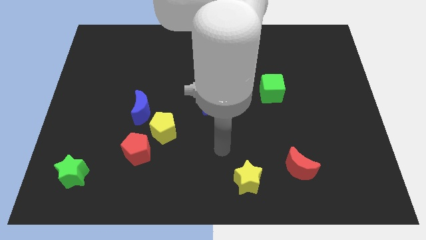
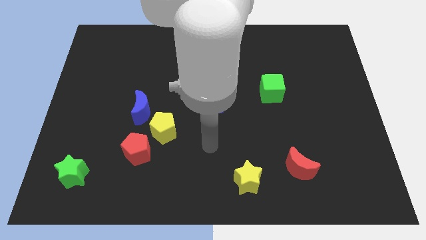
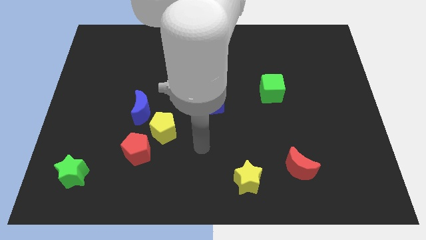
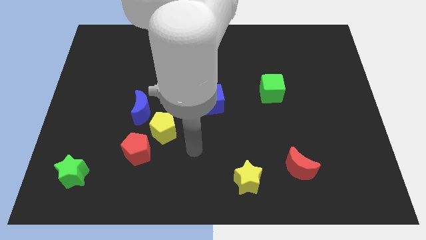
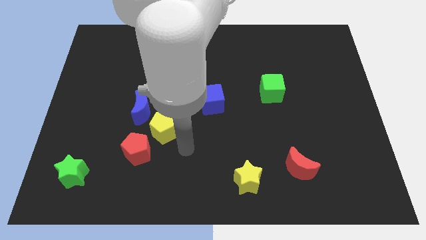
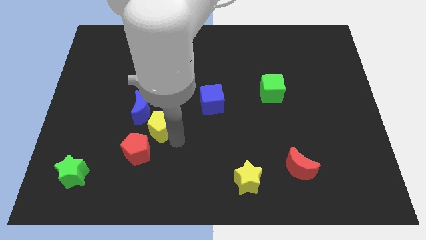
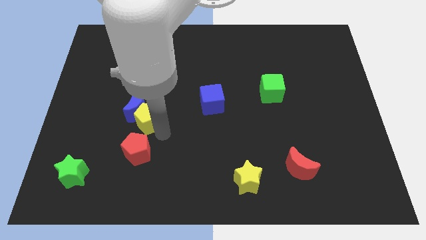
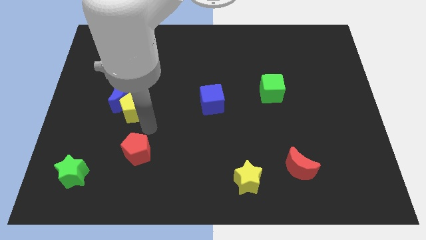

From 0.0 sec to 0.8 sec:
separate the red pentagon from the yellow pentagon

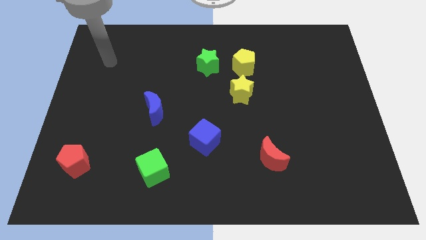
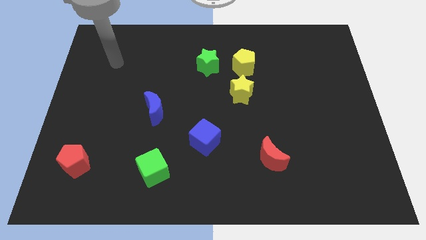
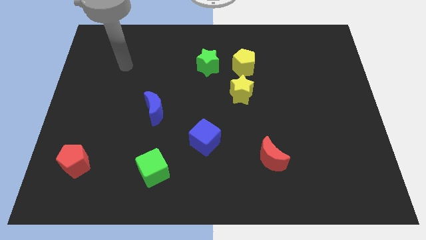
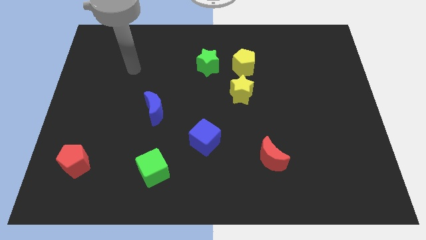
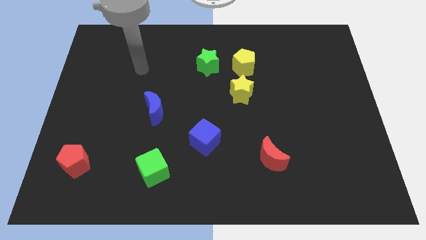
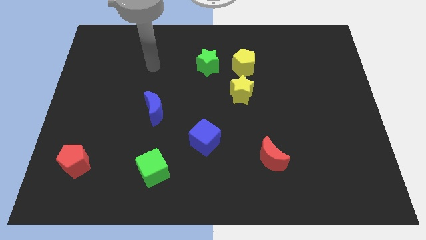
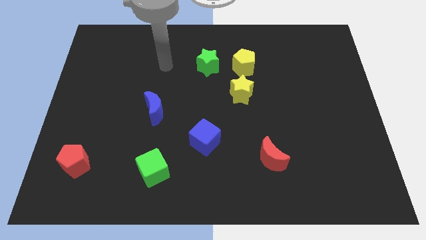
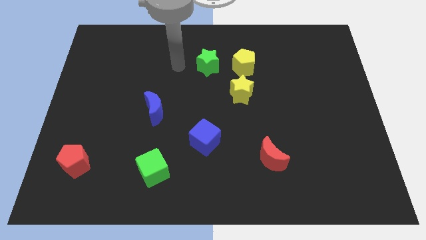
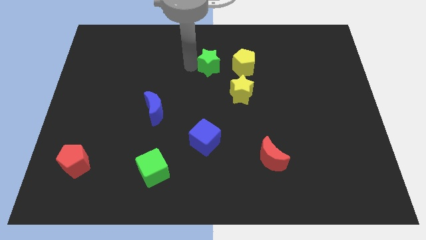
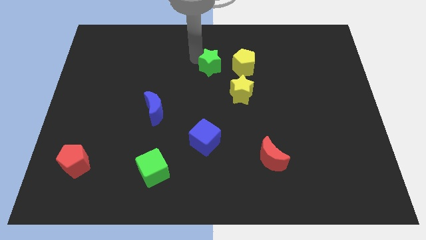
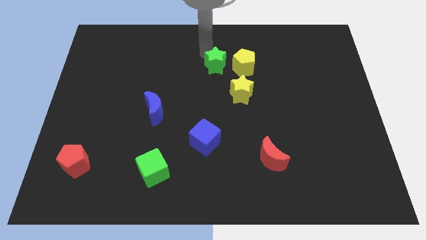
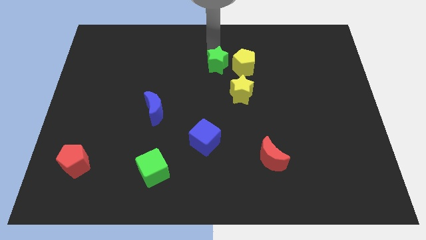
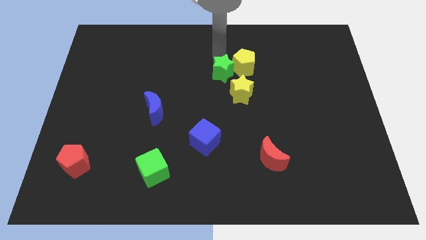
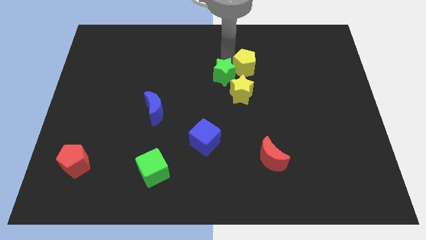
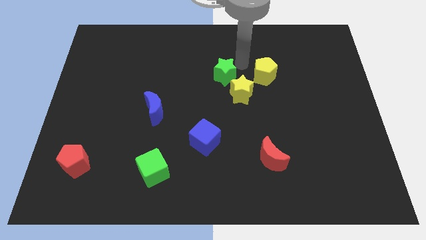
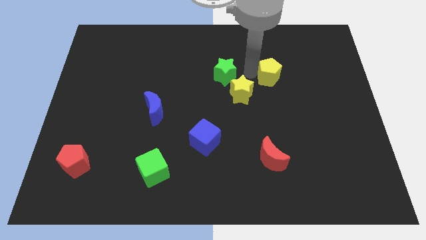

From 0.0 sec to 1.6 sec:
separate the green star from the yellow pentagon

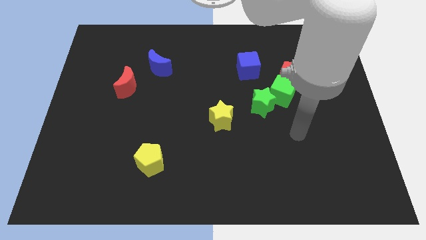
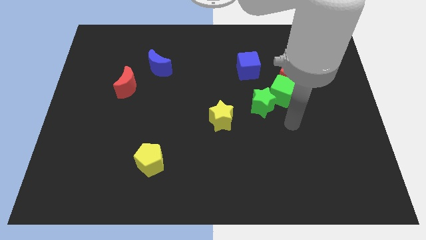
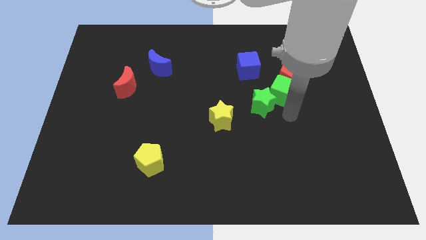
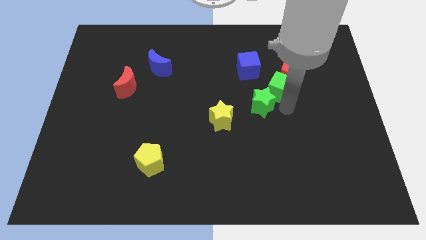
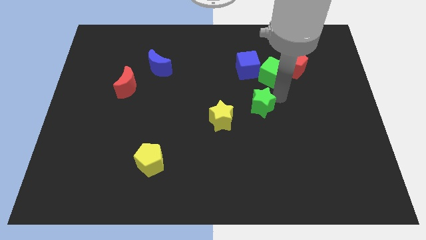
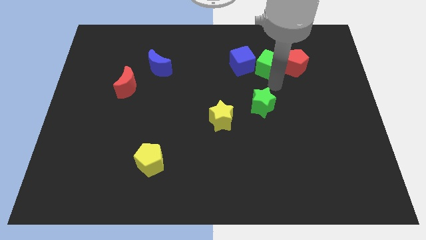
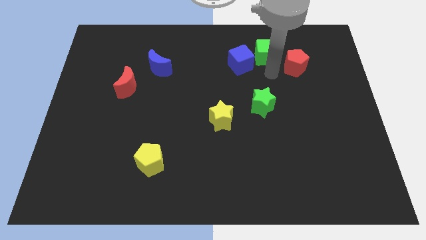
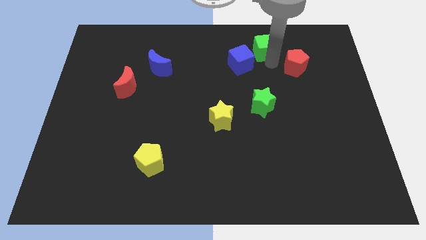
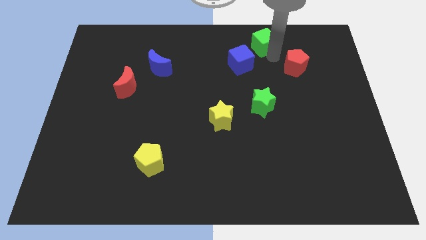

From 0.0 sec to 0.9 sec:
separate the red pentagon from the green cube

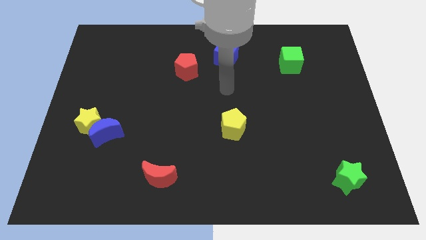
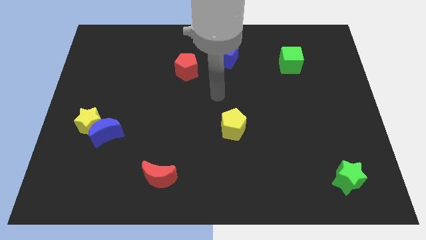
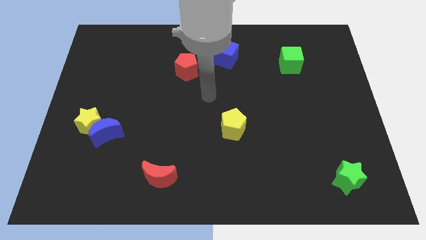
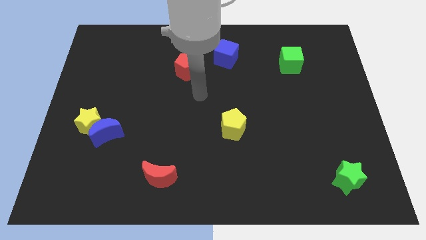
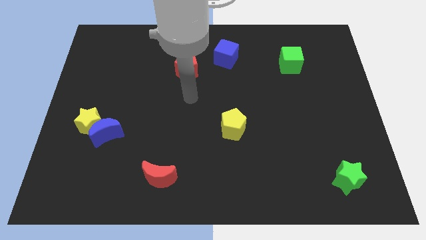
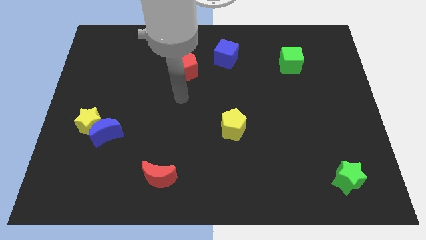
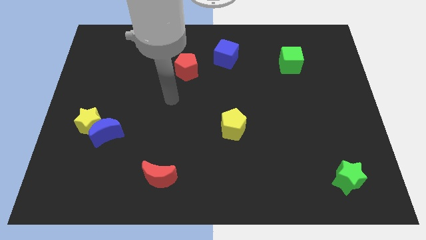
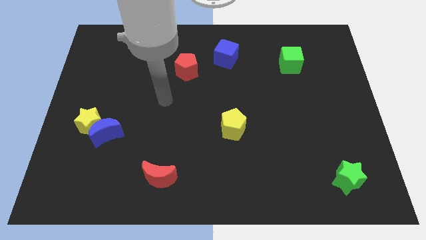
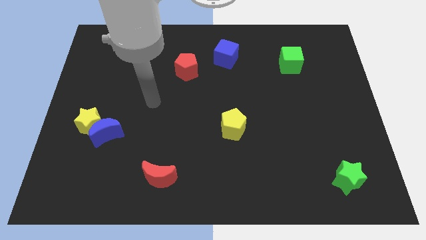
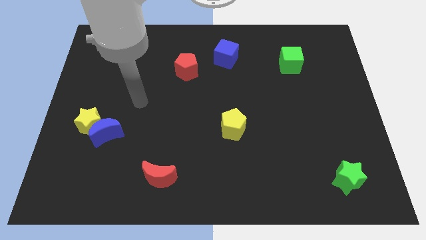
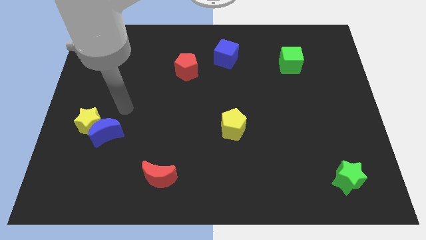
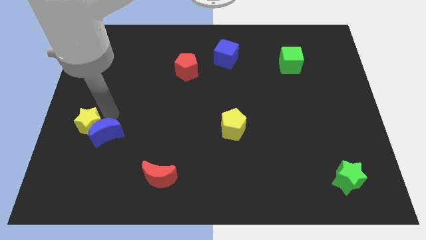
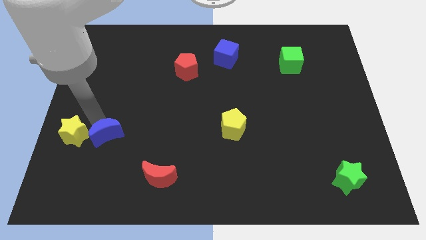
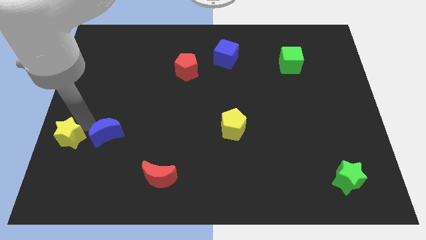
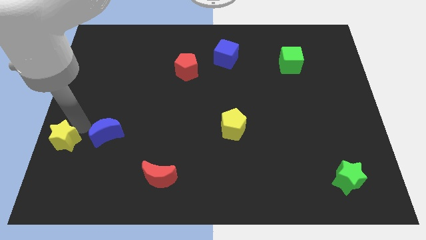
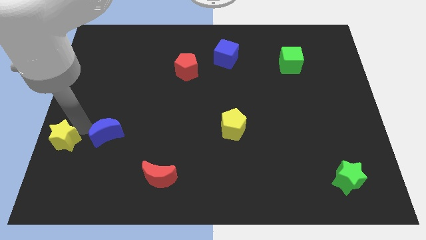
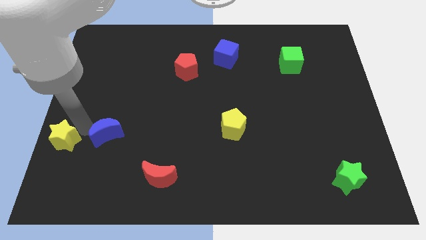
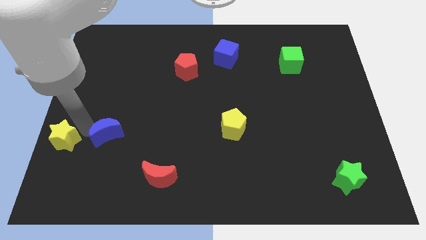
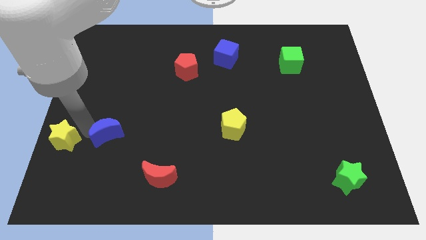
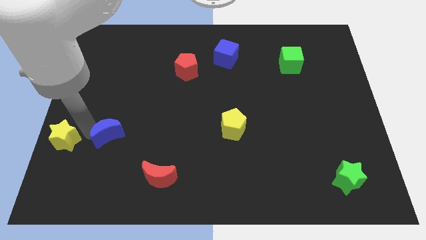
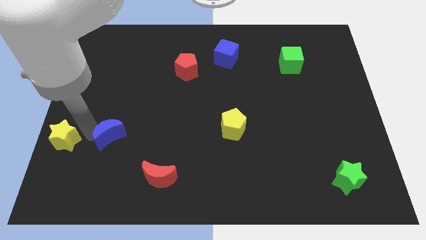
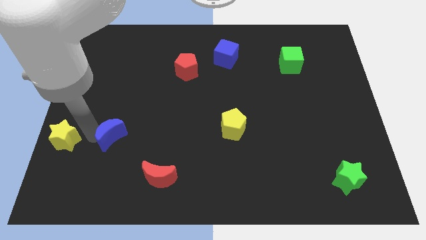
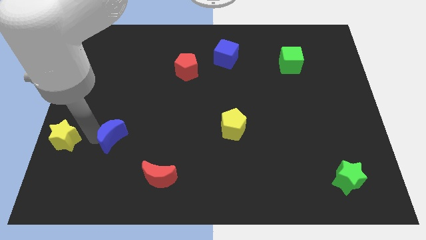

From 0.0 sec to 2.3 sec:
pull the blue moon apart from the yellow star

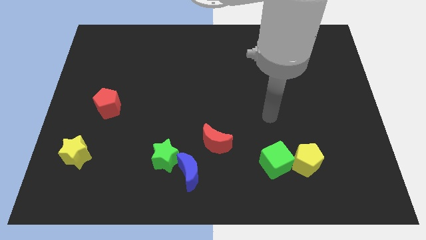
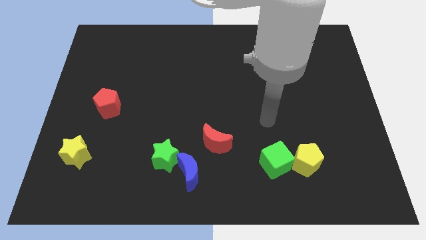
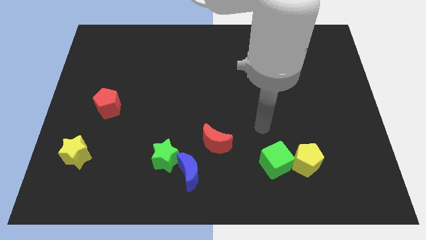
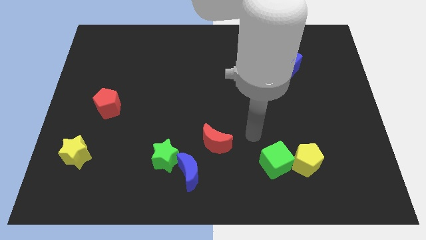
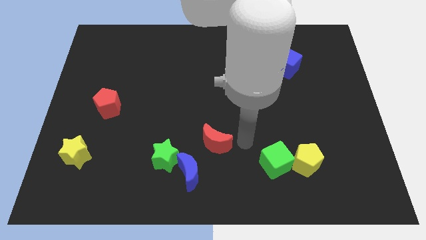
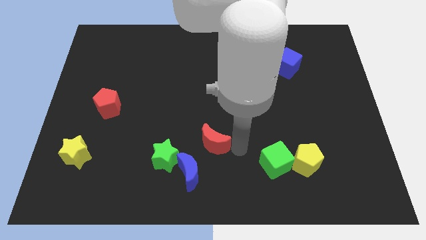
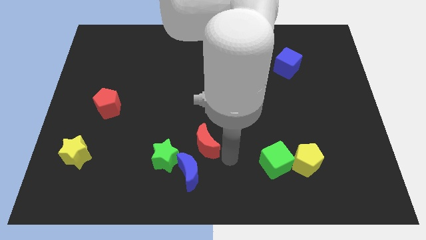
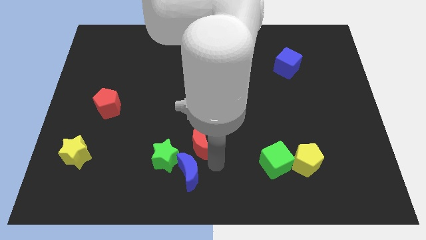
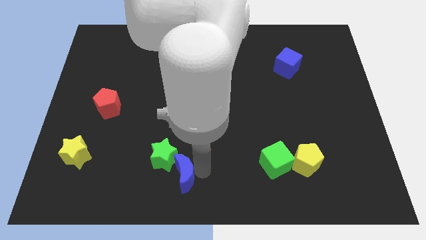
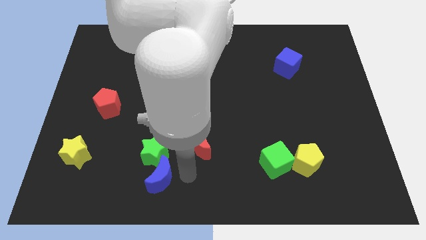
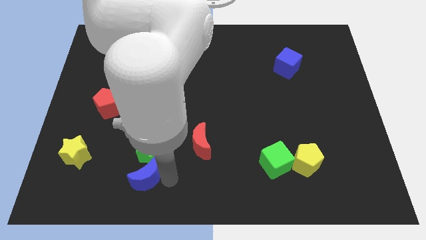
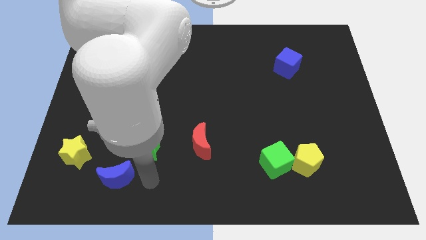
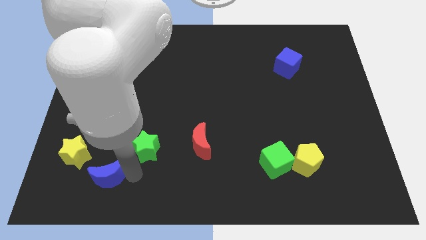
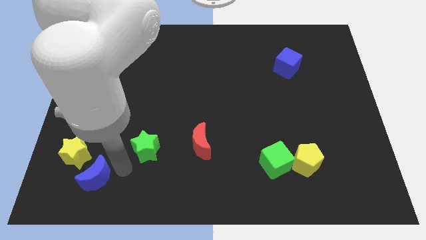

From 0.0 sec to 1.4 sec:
separate the green star from the blue moon

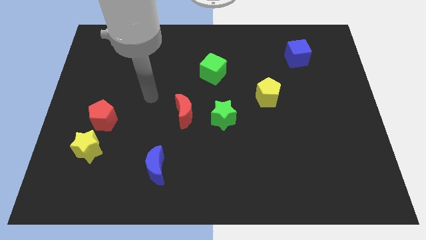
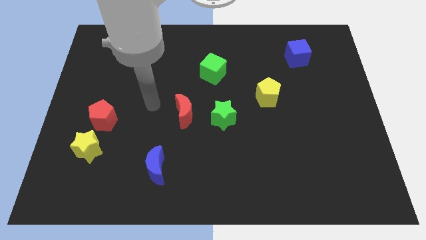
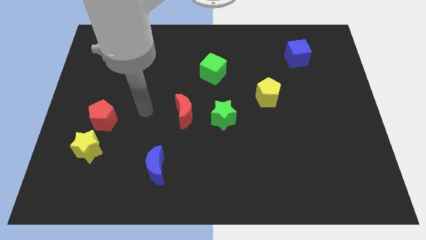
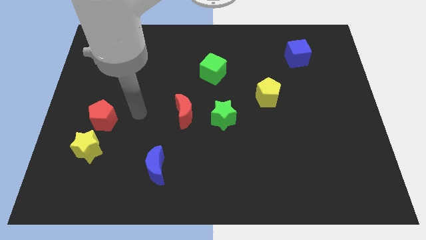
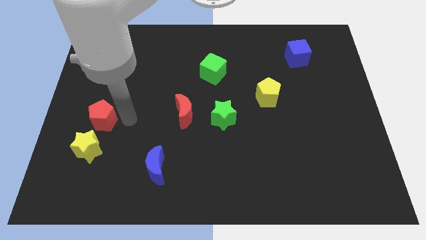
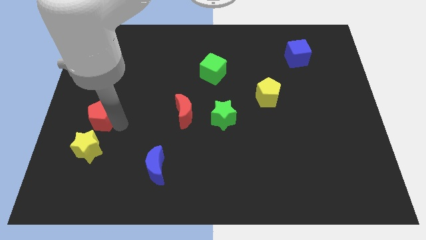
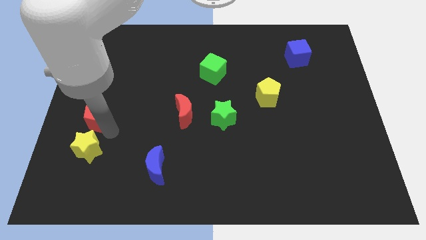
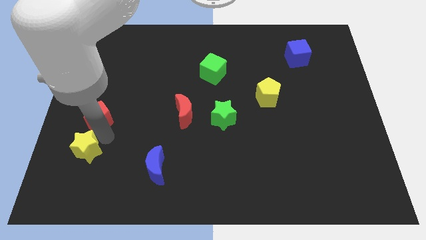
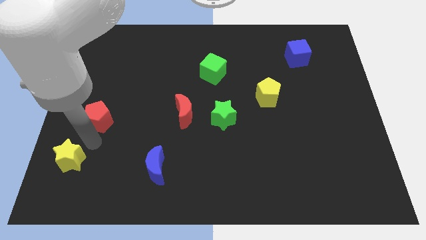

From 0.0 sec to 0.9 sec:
move the red pentagon away from the yellow star

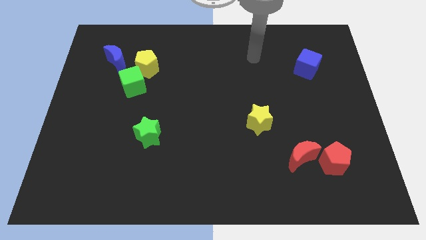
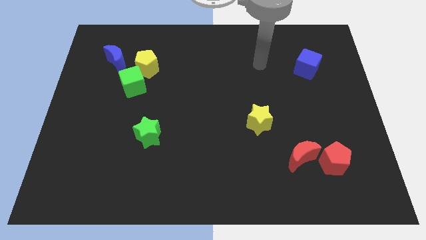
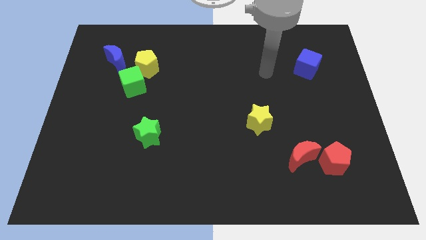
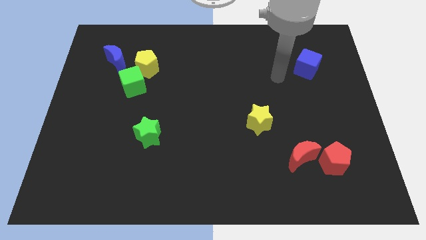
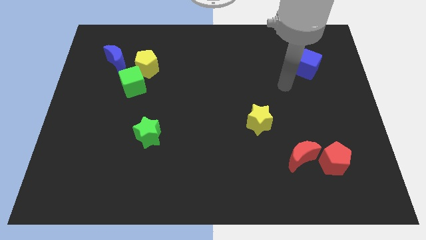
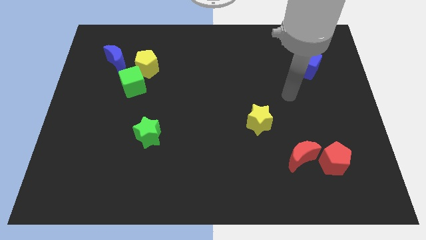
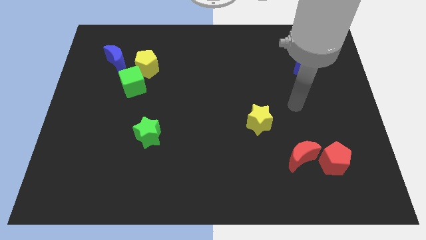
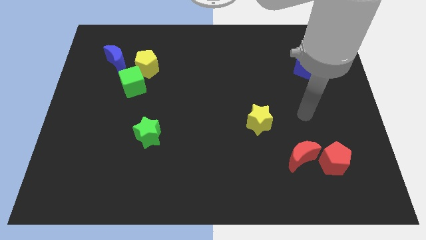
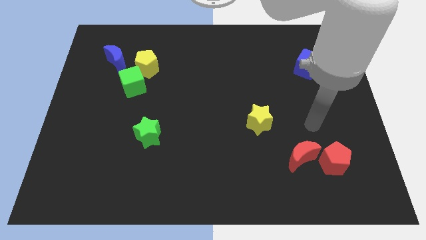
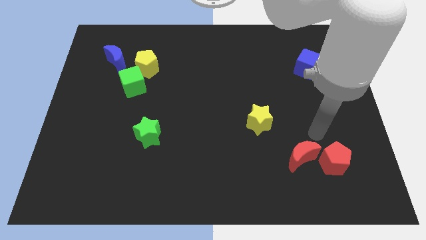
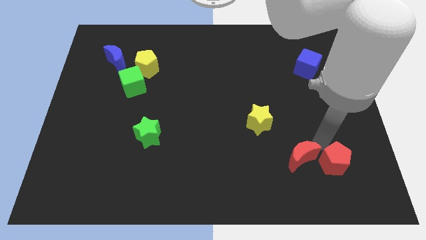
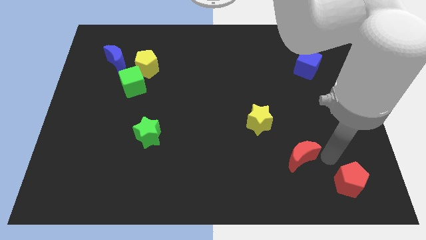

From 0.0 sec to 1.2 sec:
pull the red moon apart from the red pentagon
